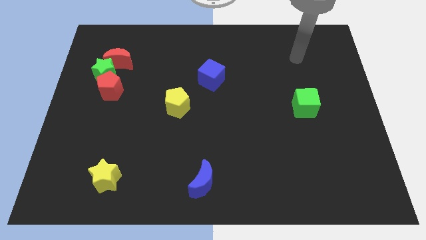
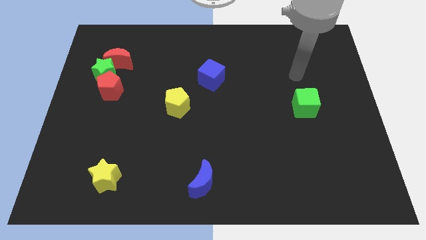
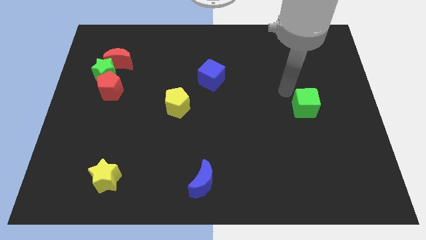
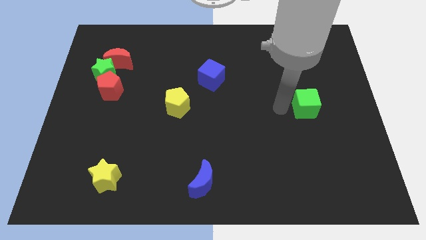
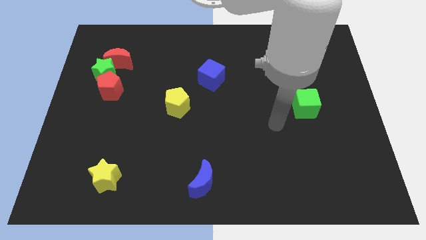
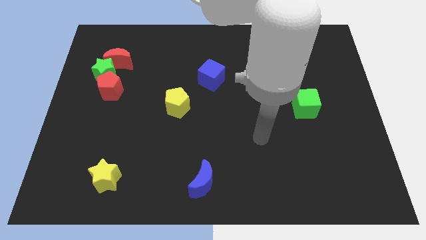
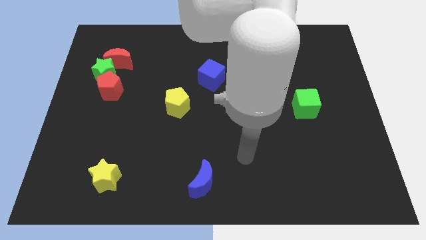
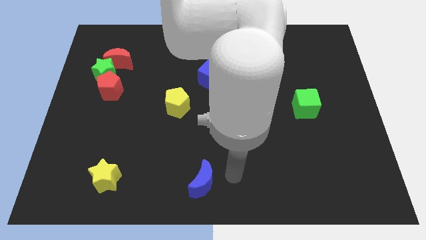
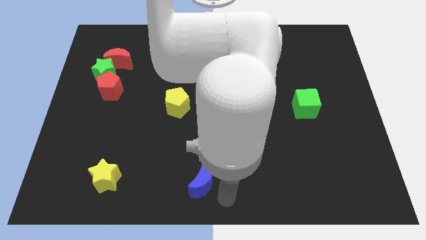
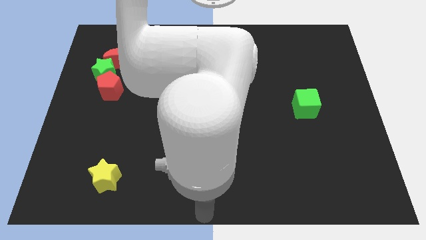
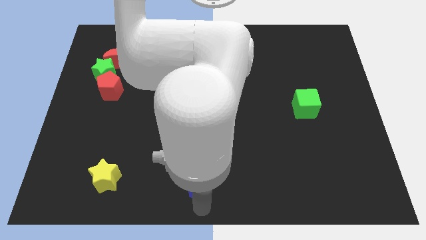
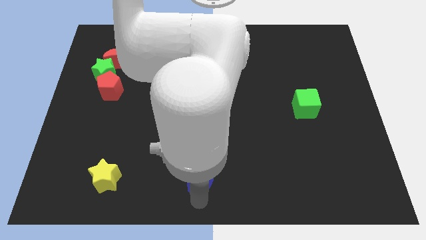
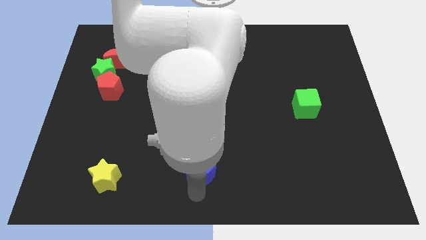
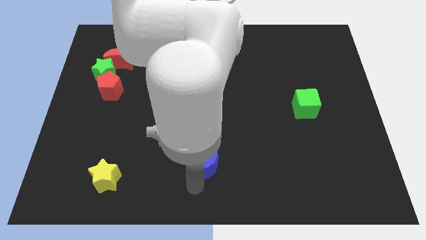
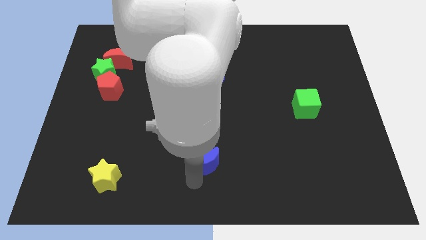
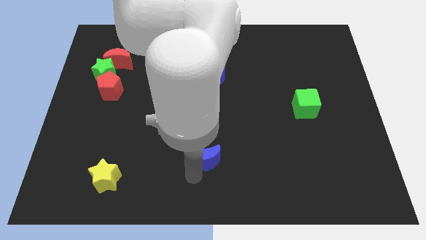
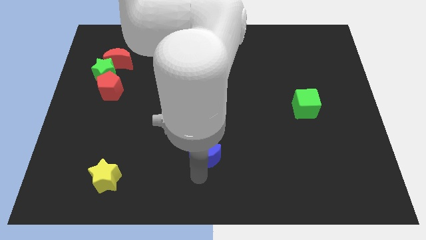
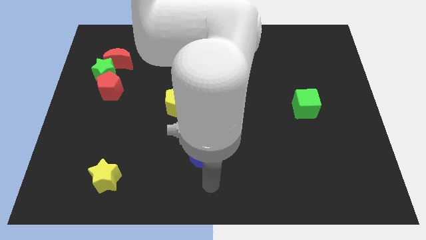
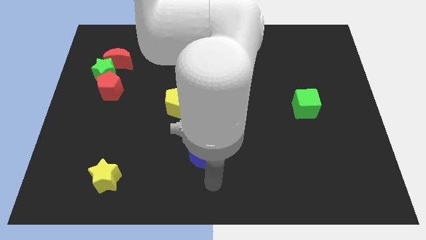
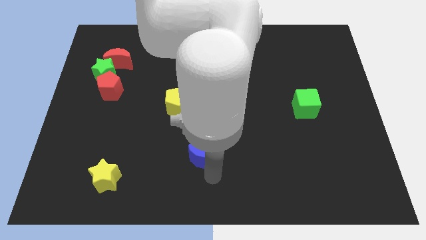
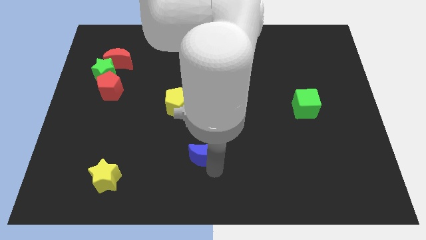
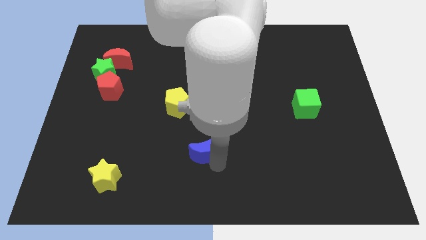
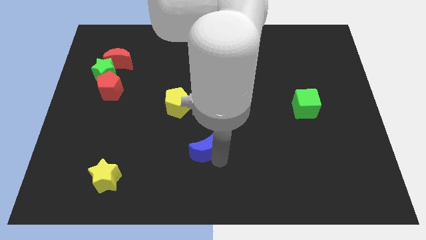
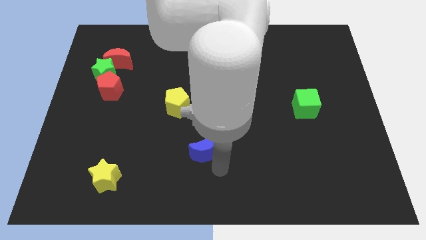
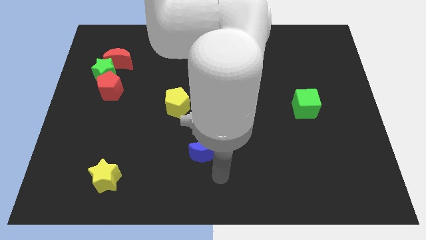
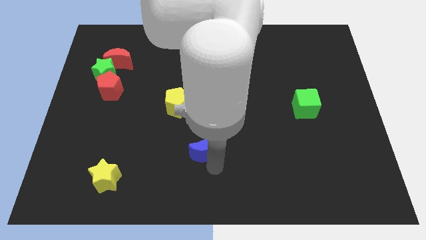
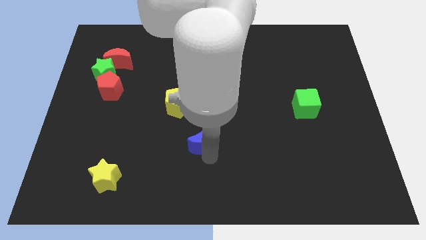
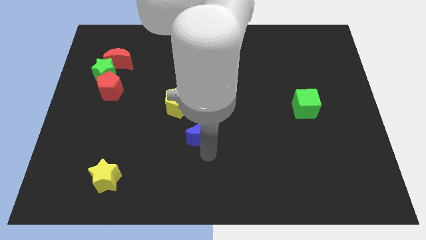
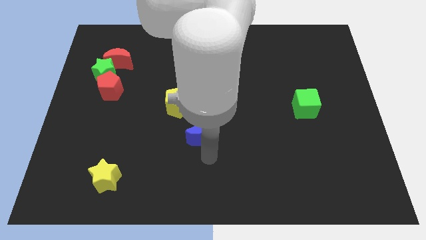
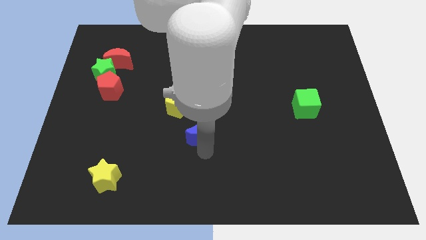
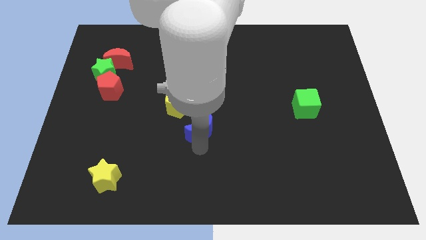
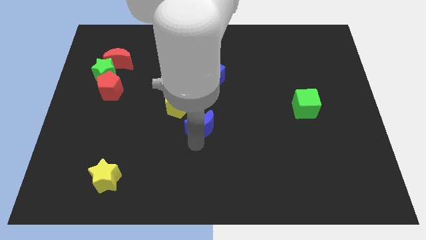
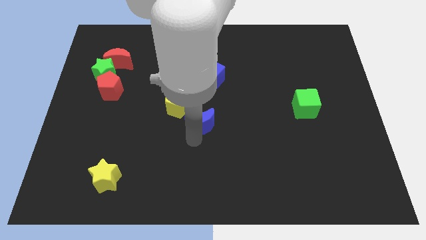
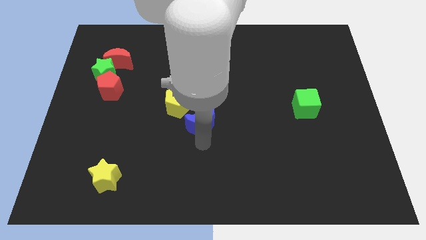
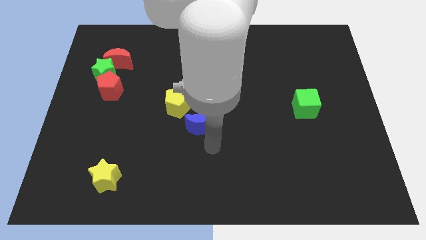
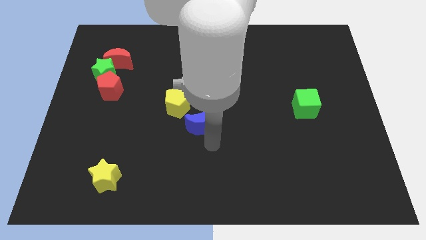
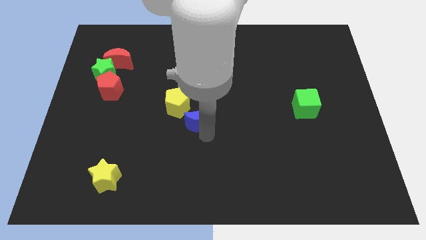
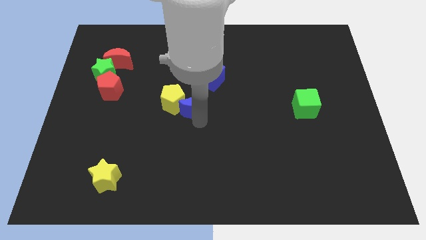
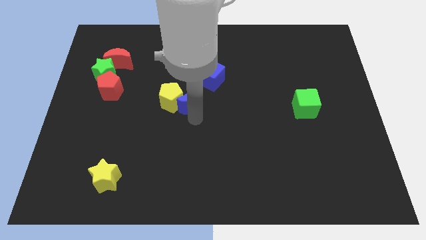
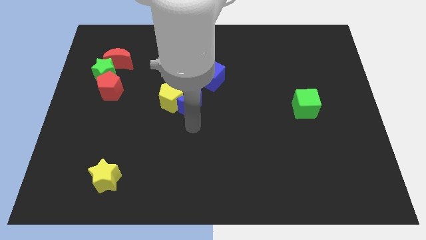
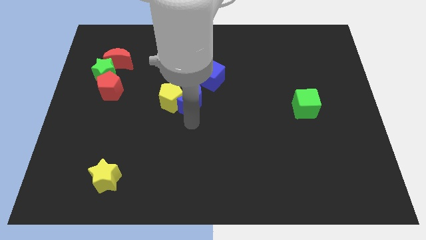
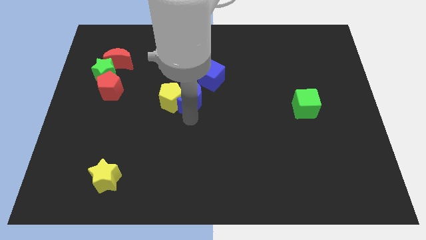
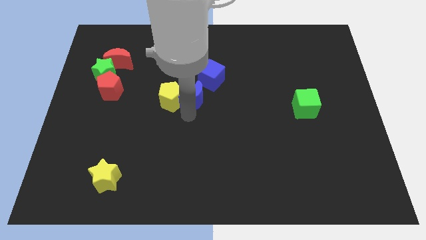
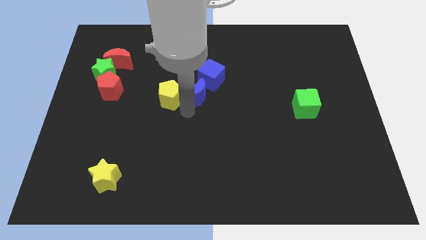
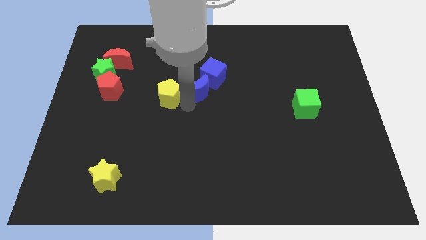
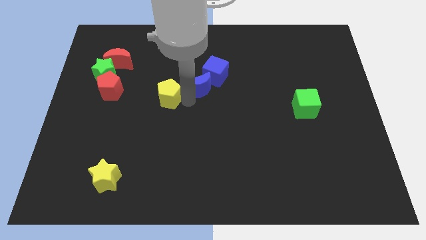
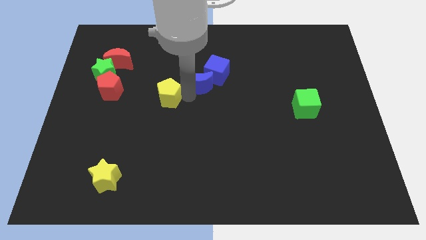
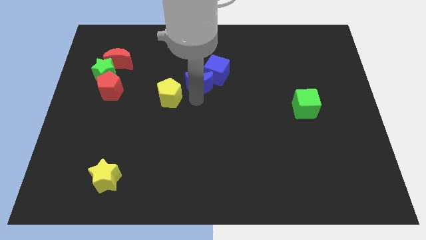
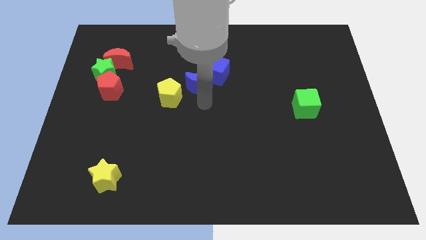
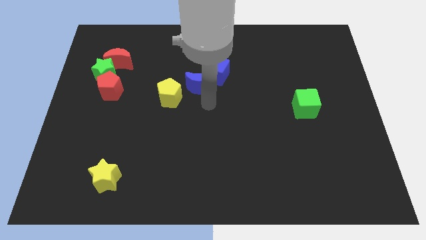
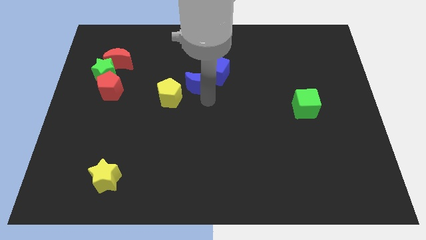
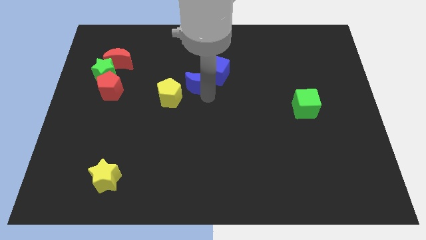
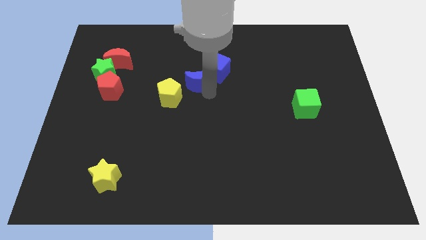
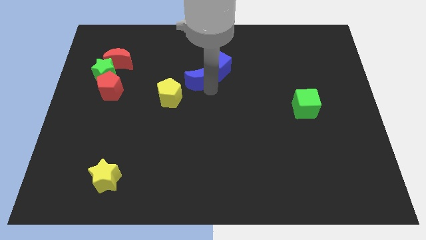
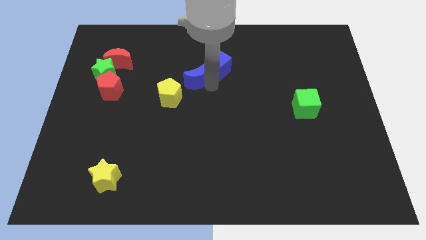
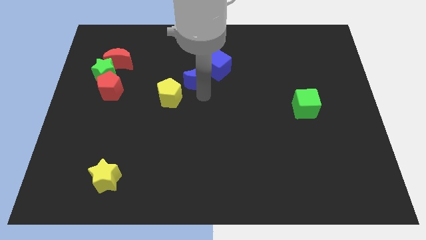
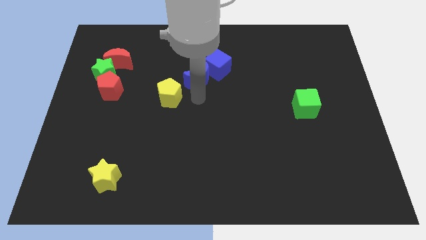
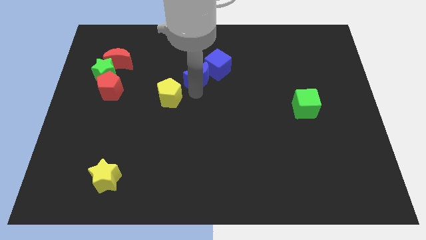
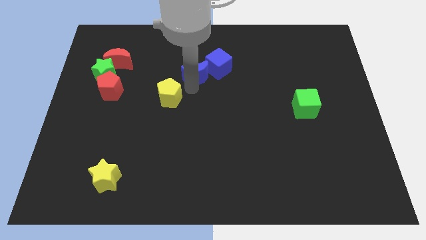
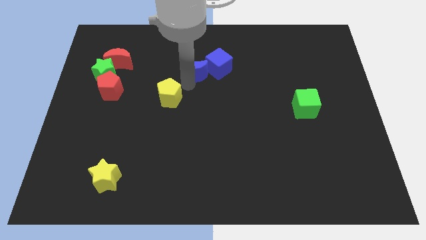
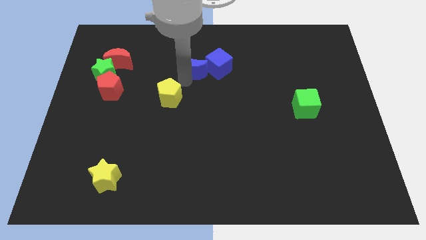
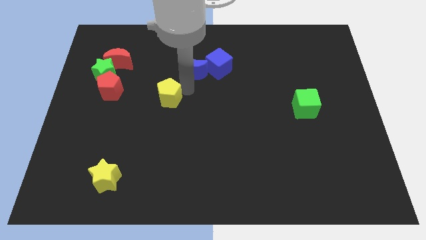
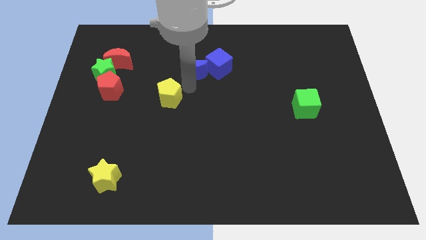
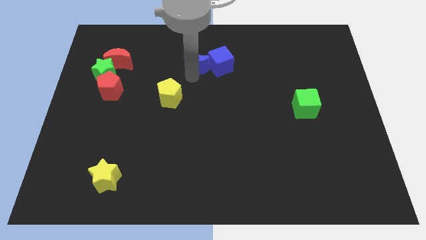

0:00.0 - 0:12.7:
put the blue moon to the top left of the blue cube
